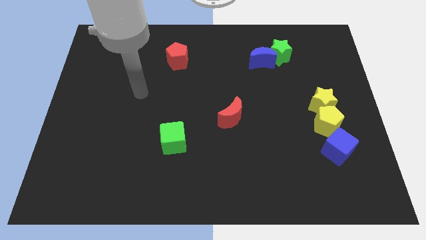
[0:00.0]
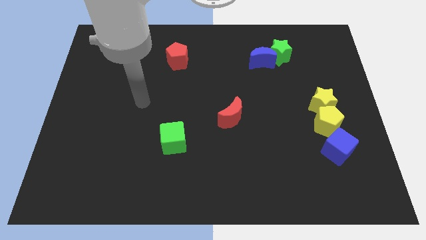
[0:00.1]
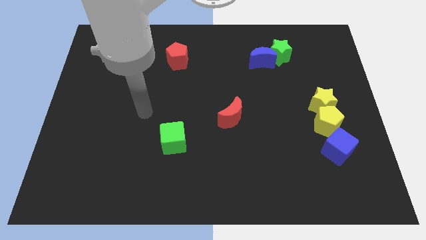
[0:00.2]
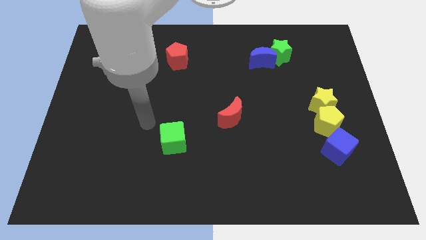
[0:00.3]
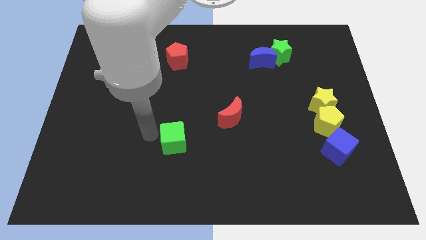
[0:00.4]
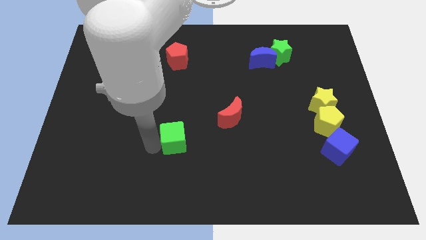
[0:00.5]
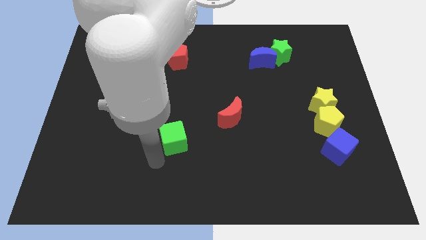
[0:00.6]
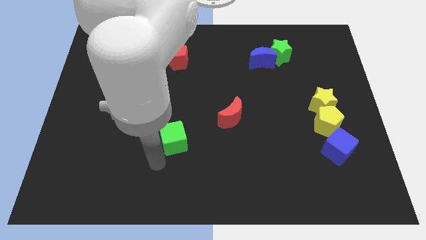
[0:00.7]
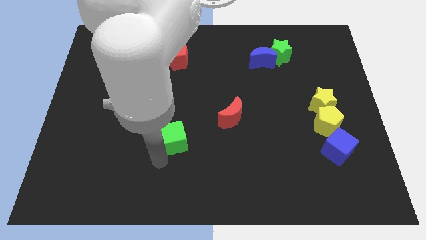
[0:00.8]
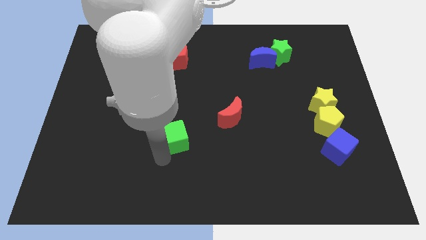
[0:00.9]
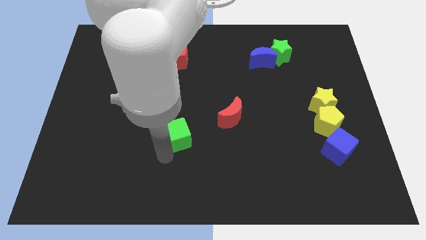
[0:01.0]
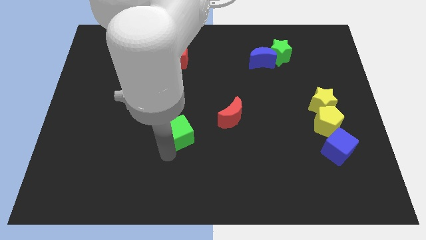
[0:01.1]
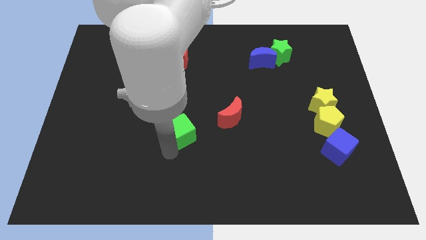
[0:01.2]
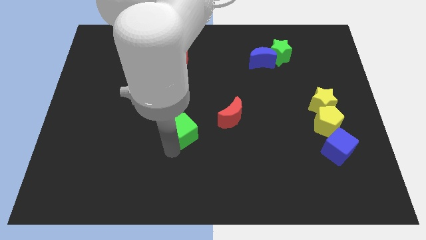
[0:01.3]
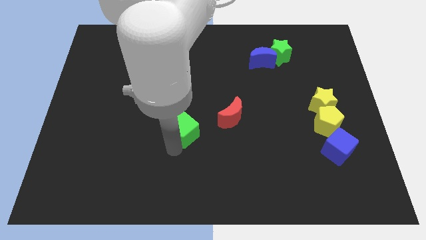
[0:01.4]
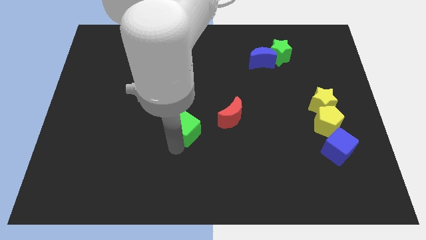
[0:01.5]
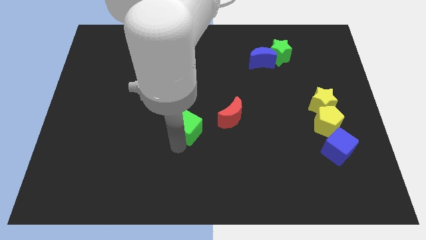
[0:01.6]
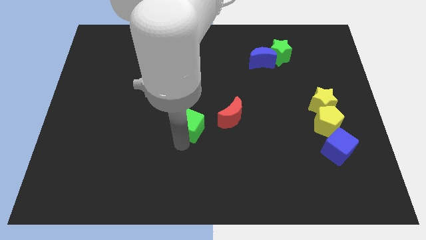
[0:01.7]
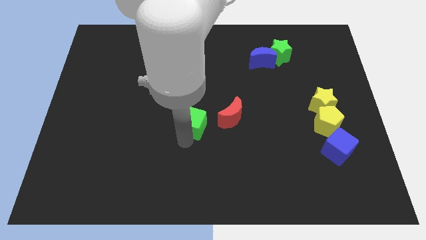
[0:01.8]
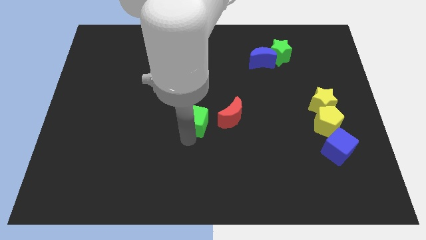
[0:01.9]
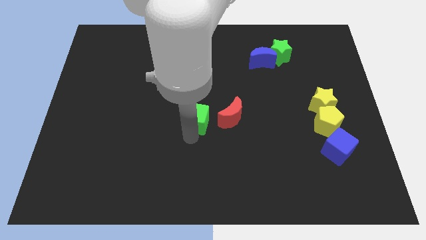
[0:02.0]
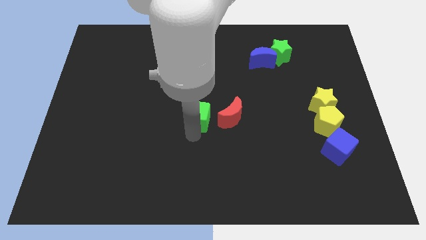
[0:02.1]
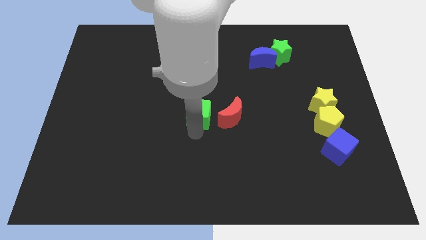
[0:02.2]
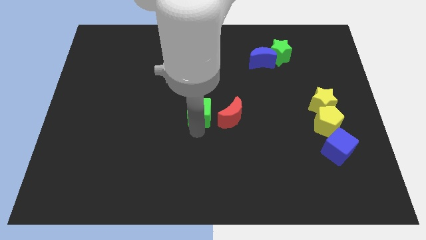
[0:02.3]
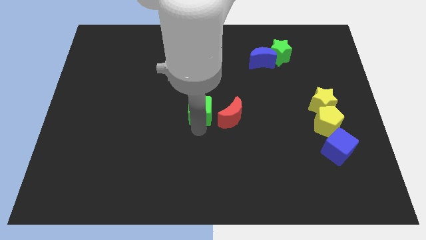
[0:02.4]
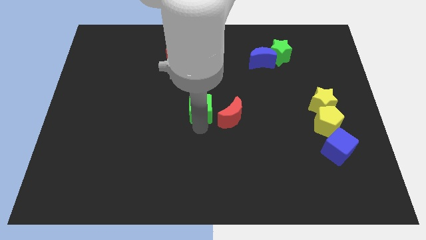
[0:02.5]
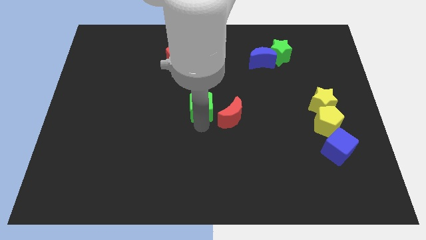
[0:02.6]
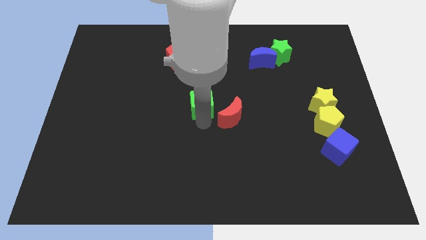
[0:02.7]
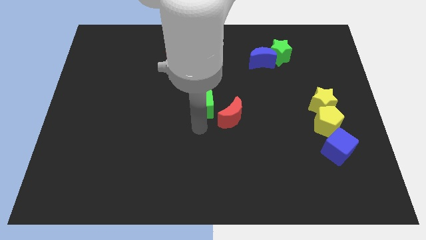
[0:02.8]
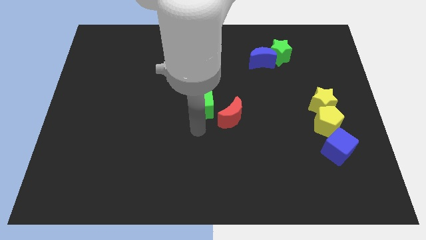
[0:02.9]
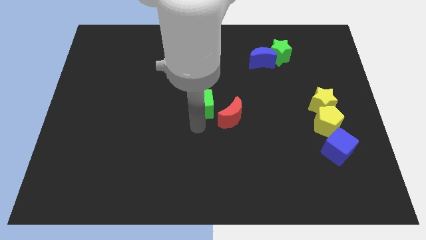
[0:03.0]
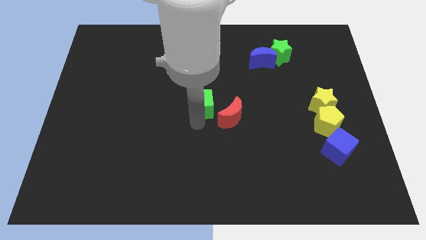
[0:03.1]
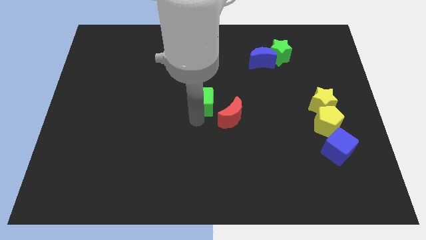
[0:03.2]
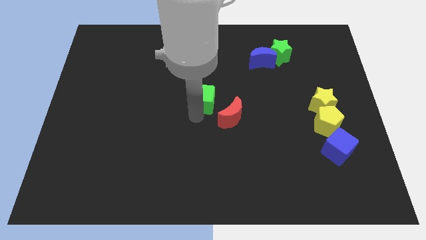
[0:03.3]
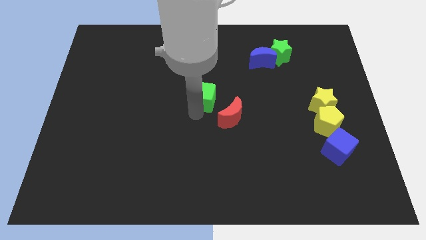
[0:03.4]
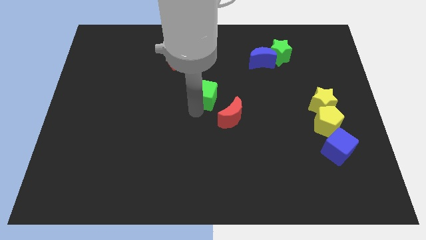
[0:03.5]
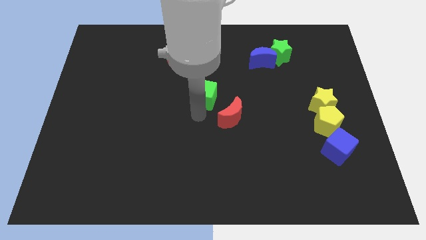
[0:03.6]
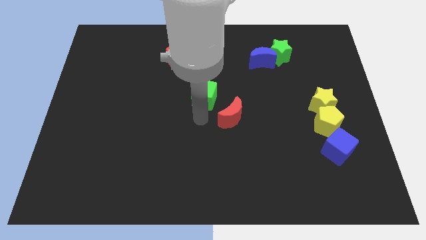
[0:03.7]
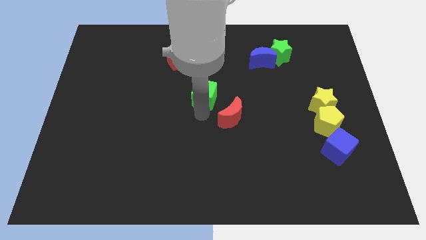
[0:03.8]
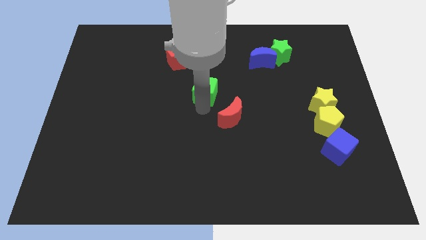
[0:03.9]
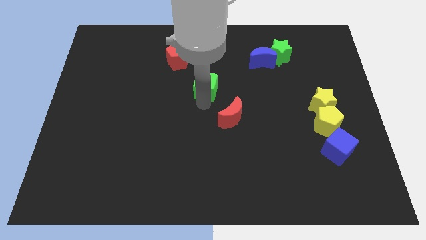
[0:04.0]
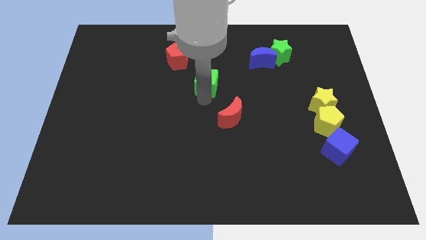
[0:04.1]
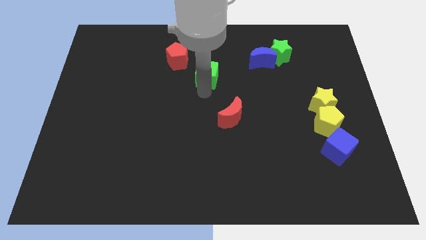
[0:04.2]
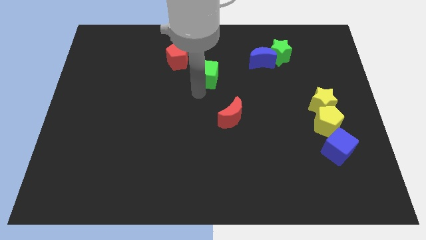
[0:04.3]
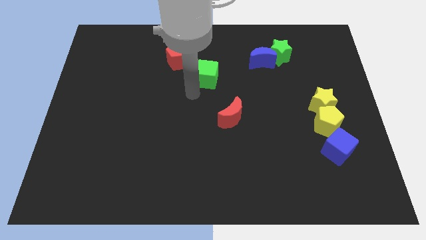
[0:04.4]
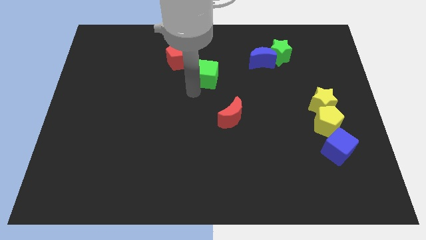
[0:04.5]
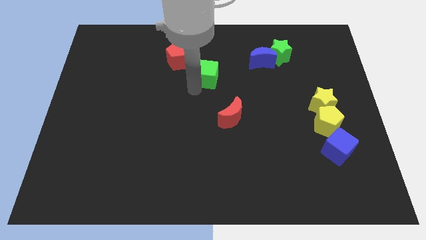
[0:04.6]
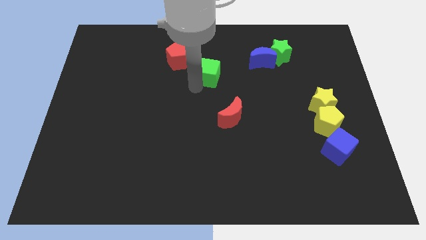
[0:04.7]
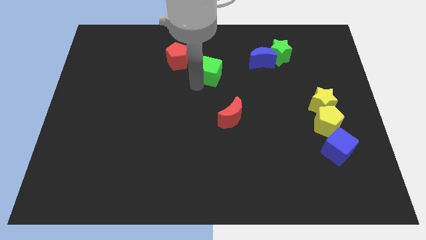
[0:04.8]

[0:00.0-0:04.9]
put the green cube left of the blue moon

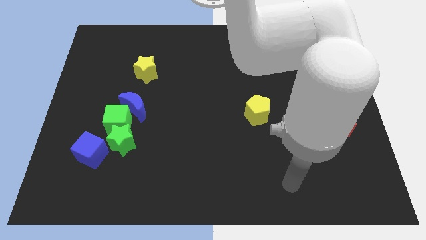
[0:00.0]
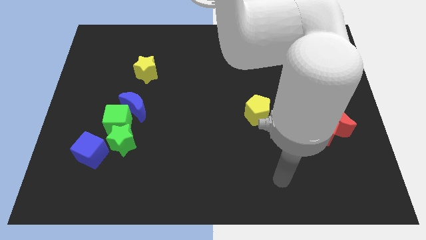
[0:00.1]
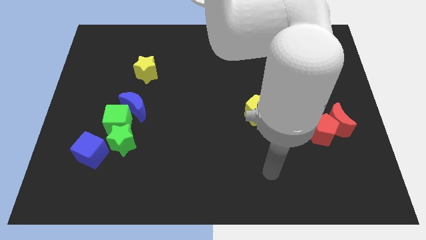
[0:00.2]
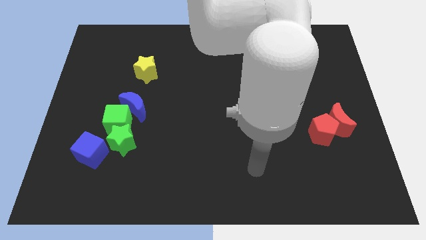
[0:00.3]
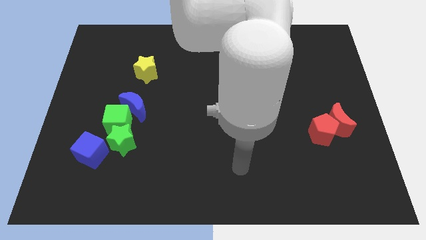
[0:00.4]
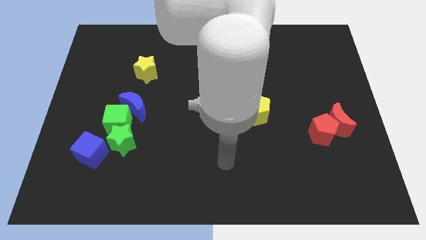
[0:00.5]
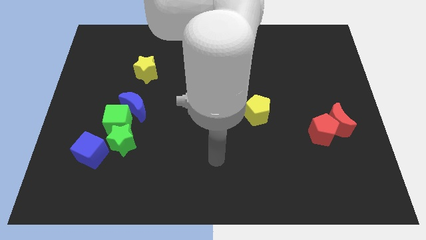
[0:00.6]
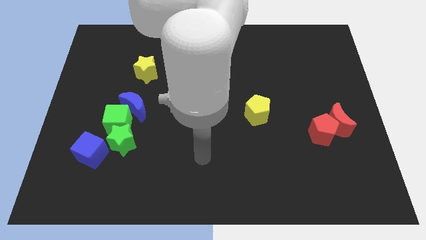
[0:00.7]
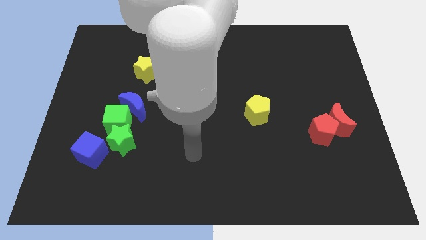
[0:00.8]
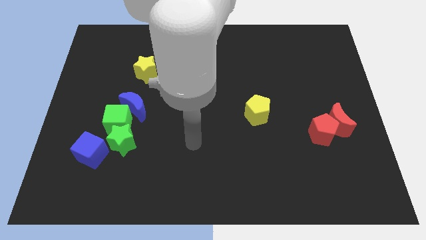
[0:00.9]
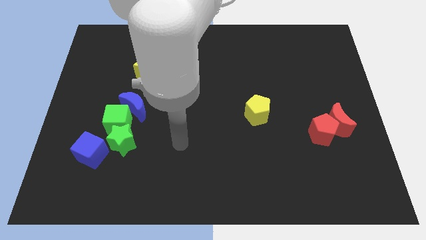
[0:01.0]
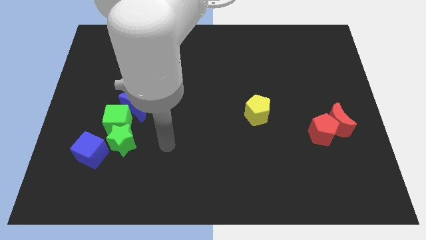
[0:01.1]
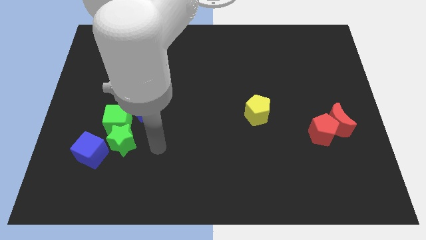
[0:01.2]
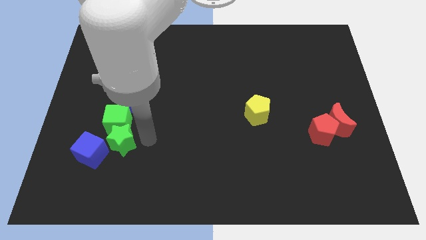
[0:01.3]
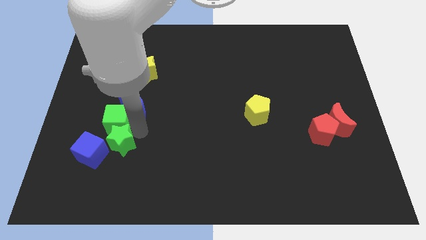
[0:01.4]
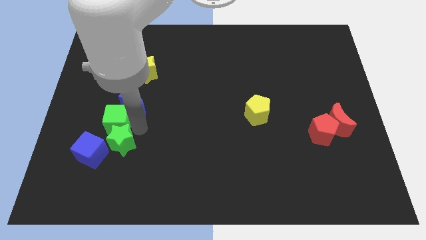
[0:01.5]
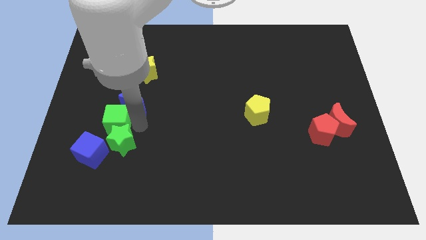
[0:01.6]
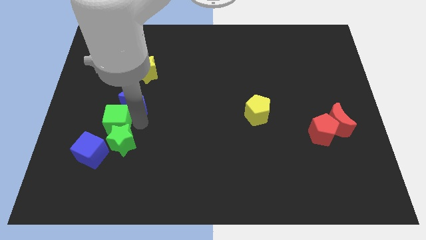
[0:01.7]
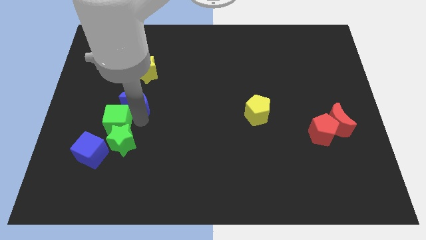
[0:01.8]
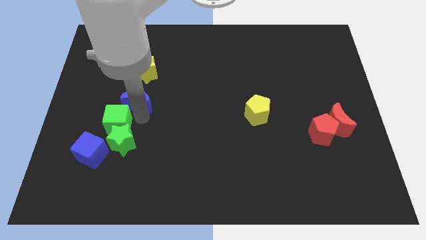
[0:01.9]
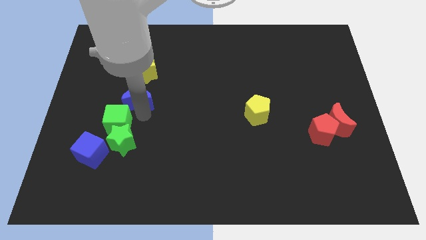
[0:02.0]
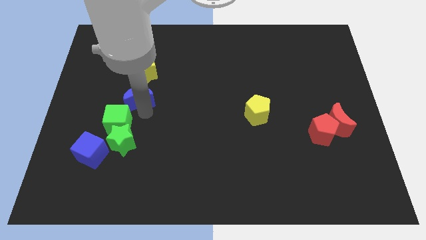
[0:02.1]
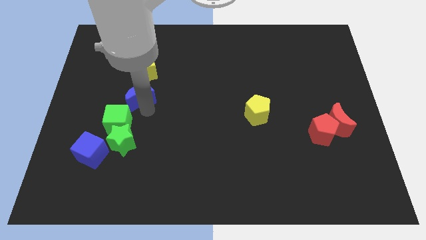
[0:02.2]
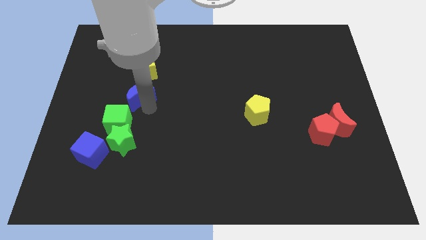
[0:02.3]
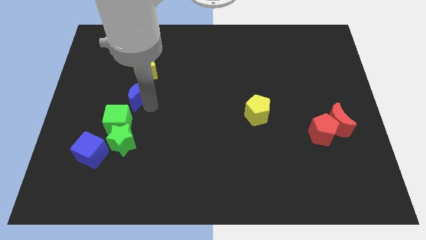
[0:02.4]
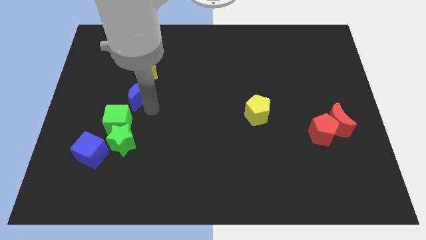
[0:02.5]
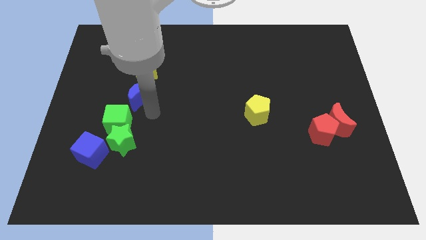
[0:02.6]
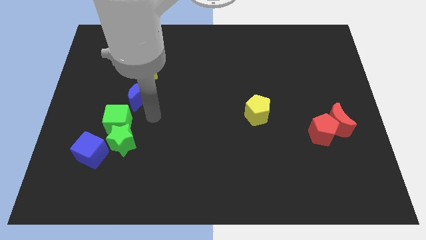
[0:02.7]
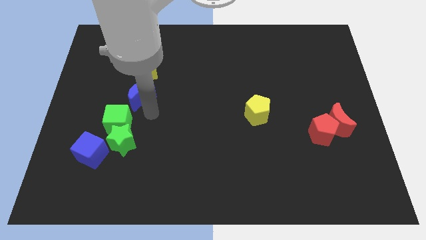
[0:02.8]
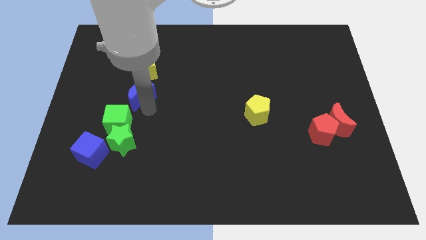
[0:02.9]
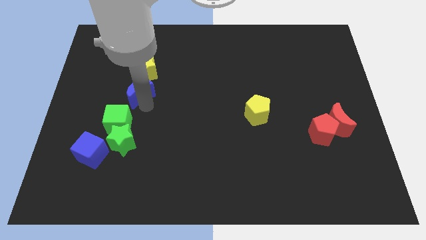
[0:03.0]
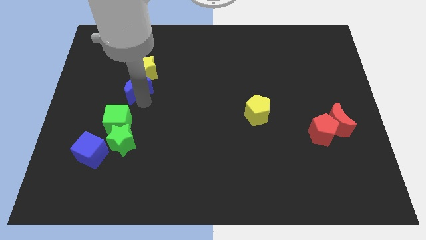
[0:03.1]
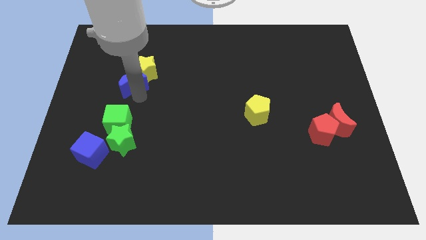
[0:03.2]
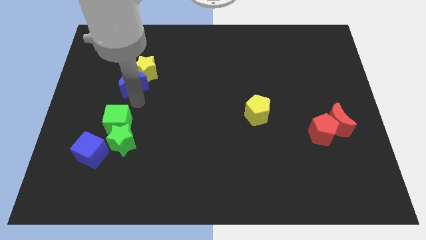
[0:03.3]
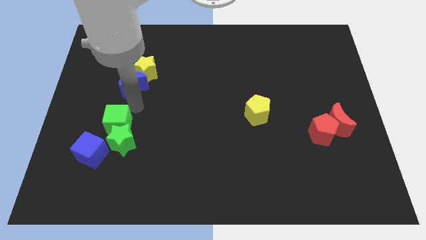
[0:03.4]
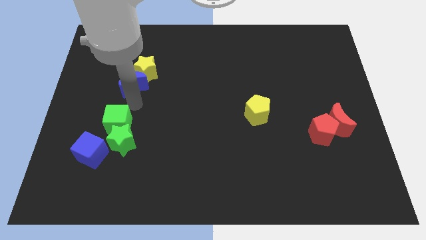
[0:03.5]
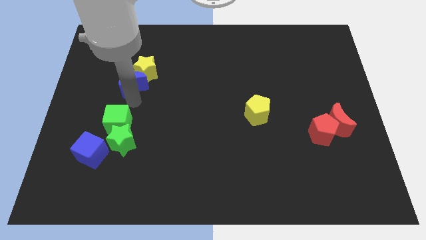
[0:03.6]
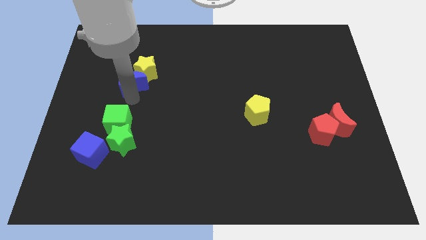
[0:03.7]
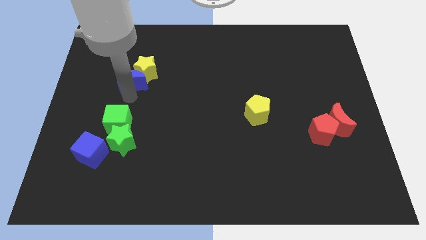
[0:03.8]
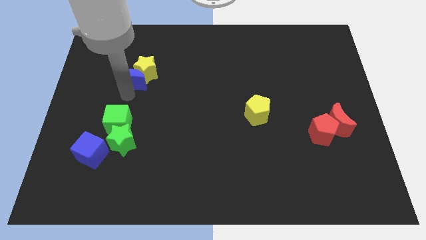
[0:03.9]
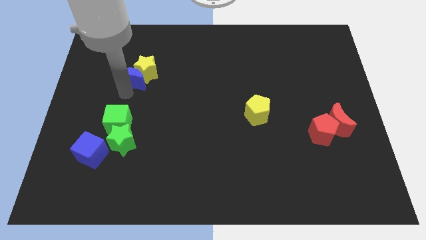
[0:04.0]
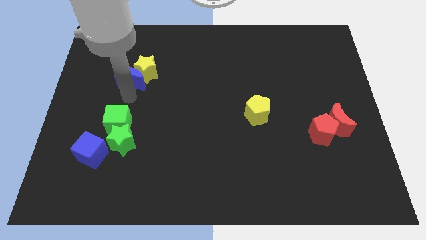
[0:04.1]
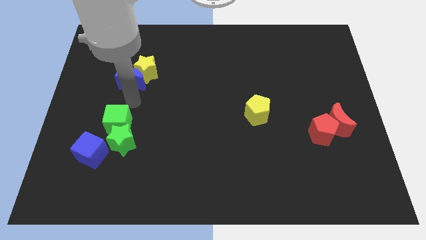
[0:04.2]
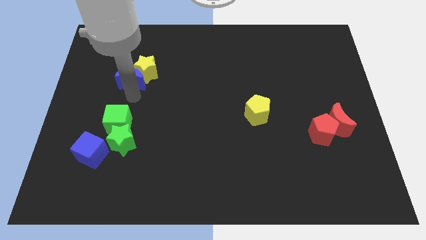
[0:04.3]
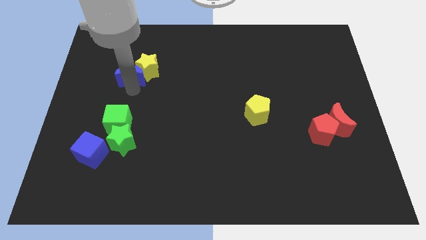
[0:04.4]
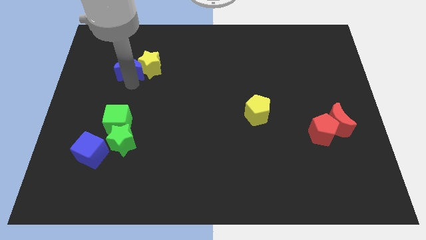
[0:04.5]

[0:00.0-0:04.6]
push the blue moon diagonally up and to the left of the yellow star
